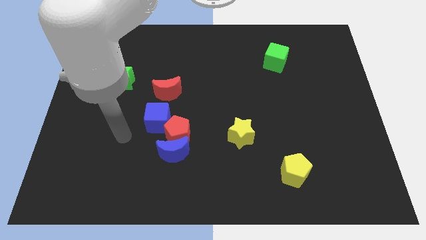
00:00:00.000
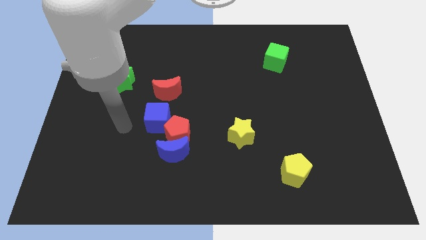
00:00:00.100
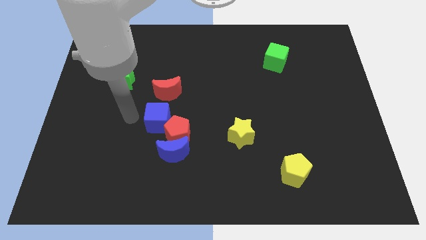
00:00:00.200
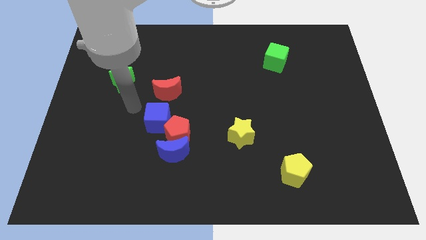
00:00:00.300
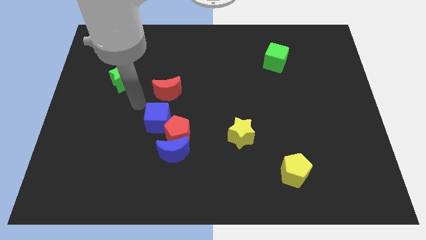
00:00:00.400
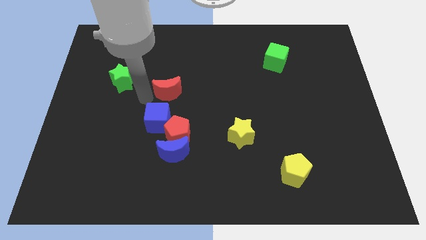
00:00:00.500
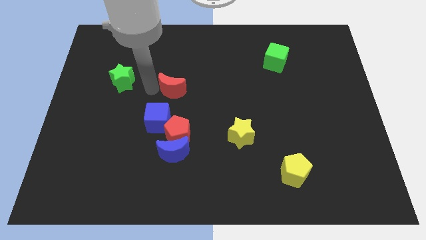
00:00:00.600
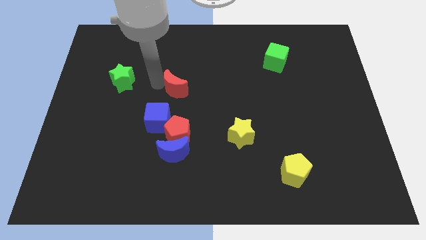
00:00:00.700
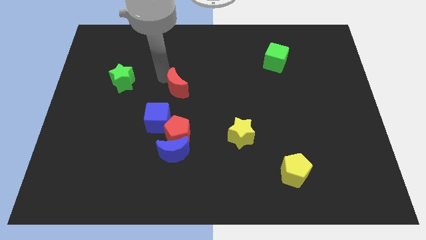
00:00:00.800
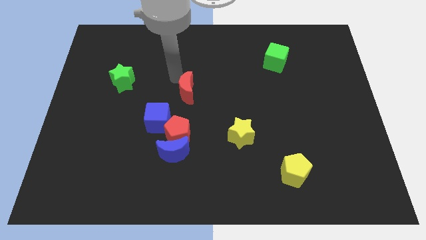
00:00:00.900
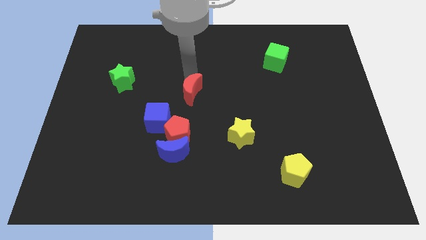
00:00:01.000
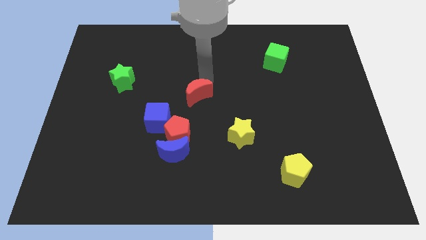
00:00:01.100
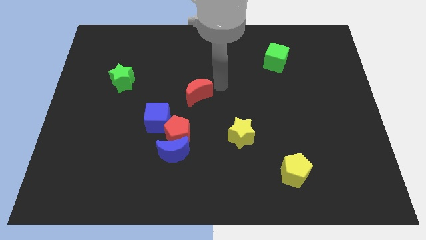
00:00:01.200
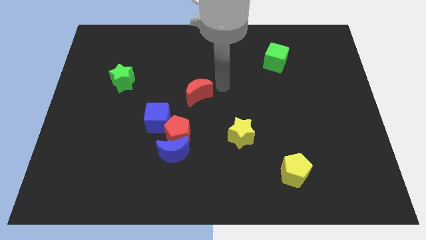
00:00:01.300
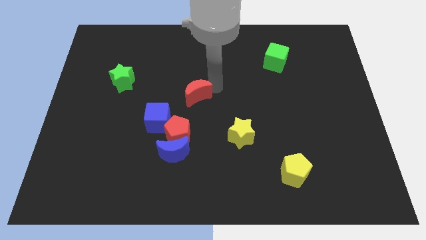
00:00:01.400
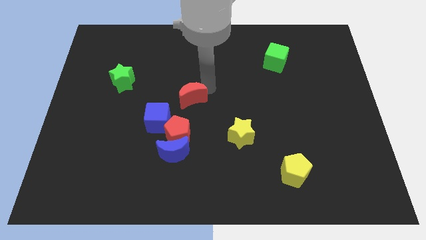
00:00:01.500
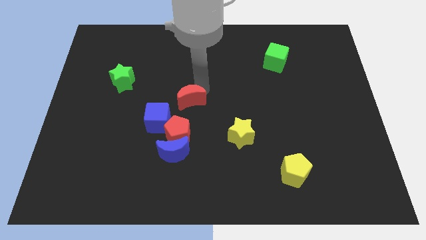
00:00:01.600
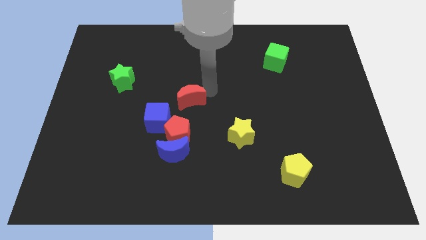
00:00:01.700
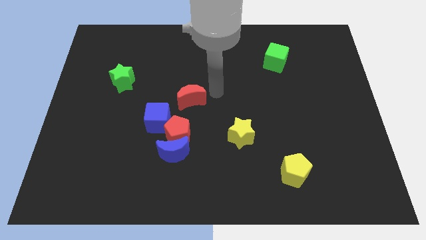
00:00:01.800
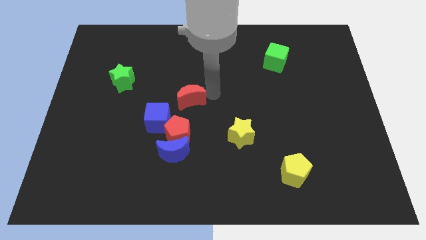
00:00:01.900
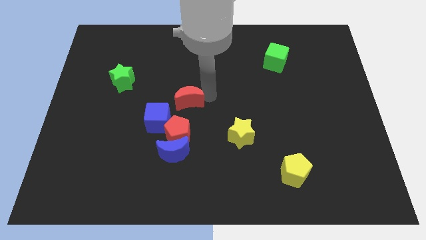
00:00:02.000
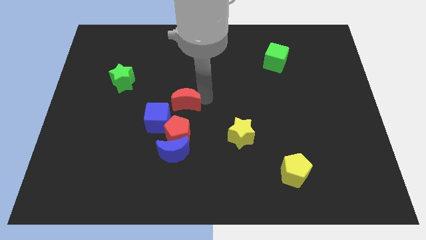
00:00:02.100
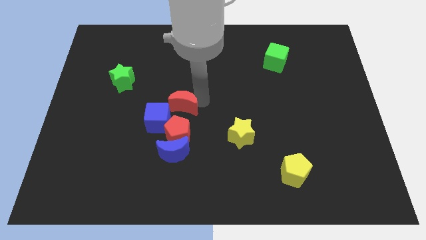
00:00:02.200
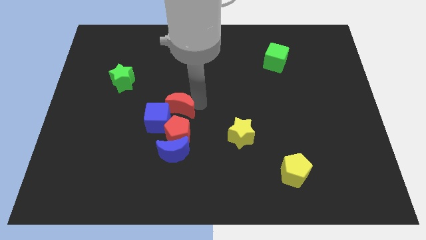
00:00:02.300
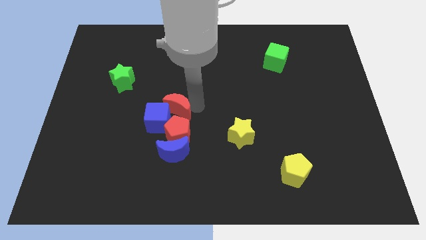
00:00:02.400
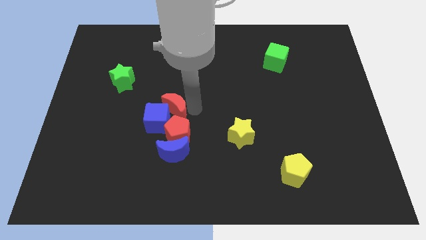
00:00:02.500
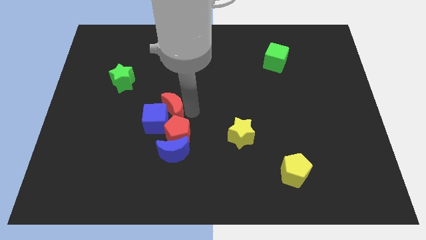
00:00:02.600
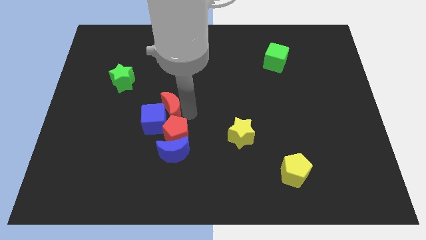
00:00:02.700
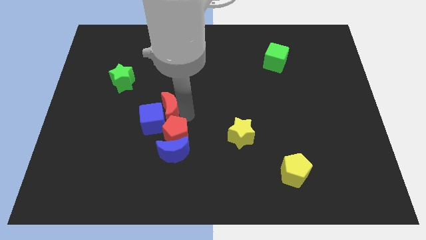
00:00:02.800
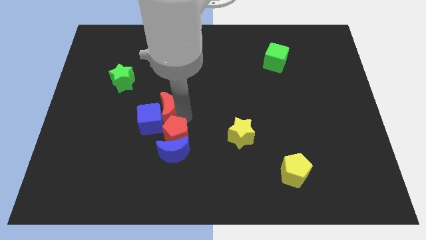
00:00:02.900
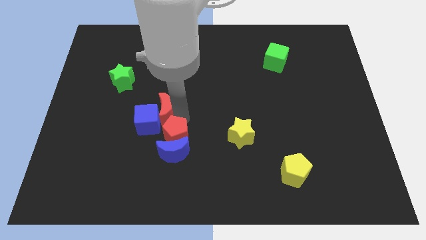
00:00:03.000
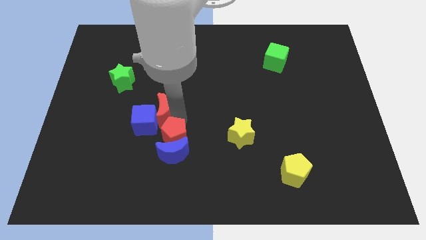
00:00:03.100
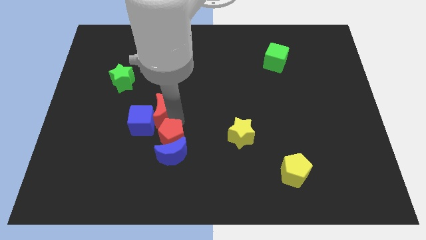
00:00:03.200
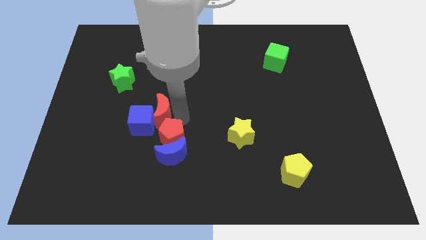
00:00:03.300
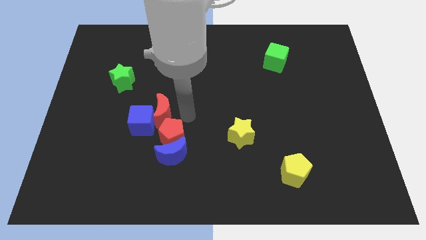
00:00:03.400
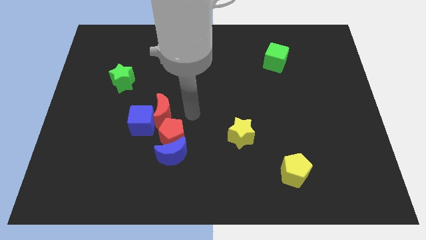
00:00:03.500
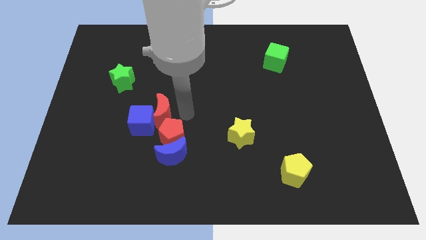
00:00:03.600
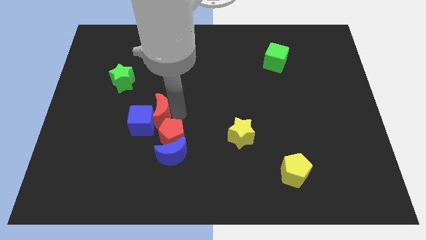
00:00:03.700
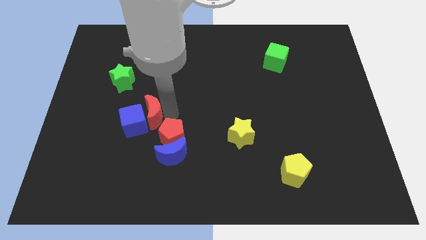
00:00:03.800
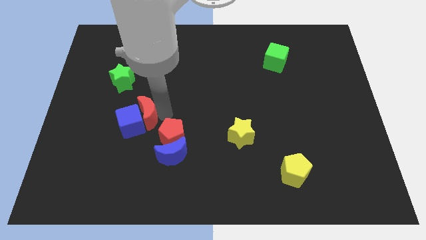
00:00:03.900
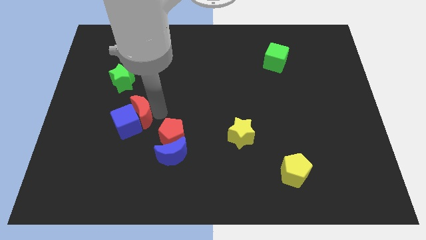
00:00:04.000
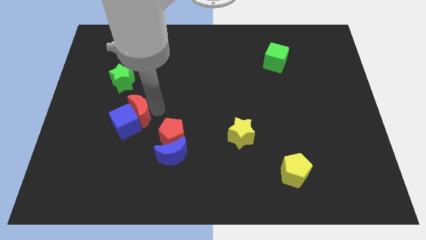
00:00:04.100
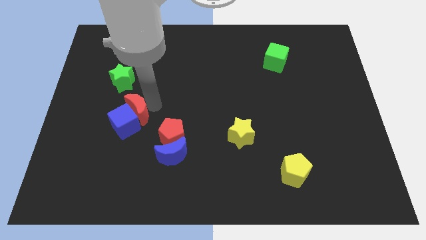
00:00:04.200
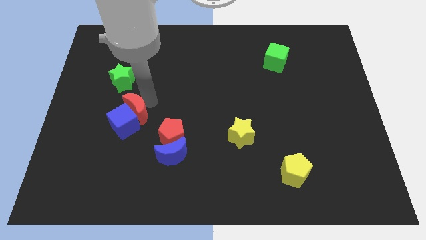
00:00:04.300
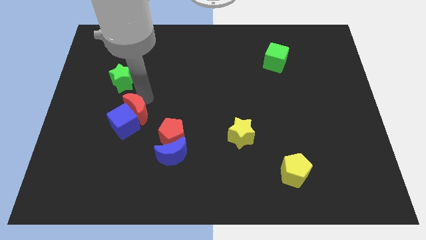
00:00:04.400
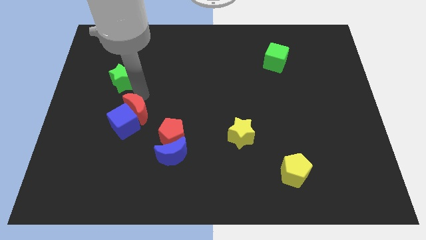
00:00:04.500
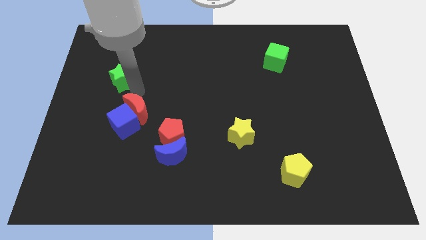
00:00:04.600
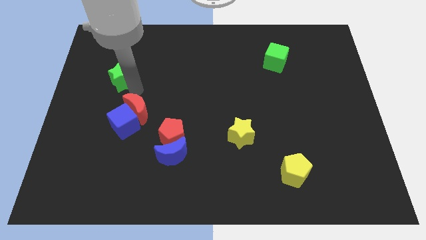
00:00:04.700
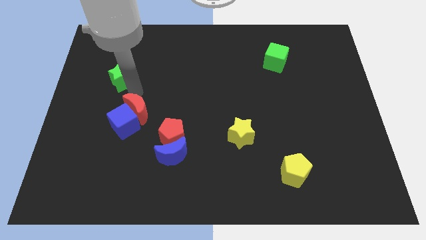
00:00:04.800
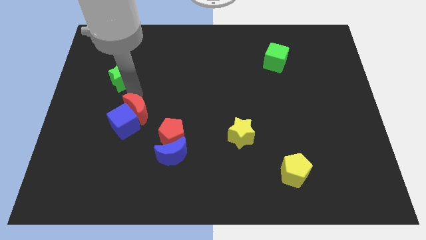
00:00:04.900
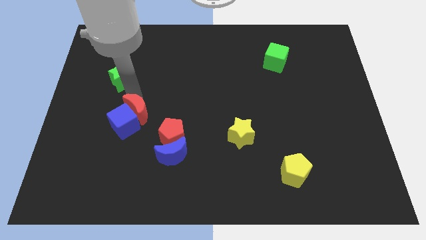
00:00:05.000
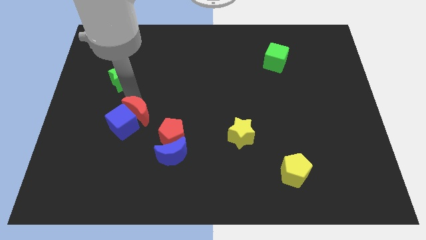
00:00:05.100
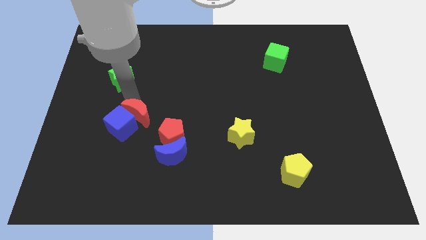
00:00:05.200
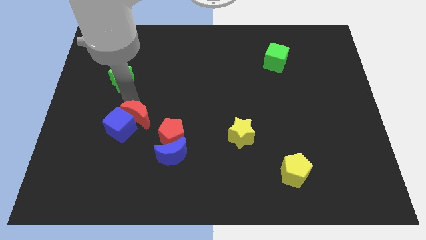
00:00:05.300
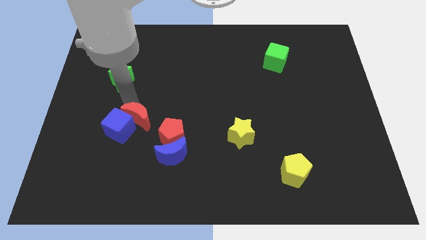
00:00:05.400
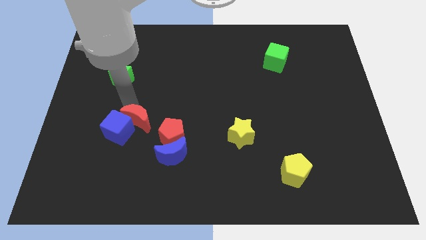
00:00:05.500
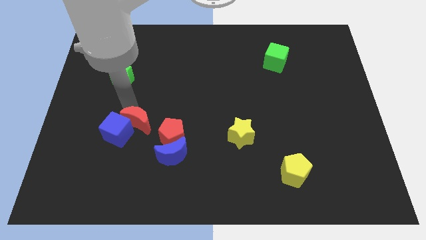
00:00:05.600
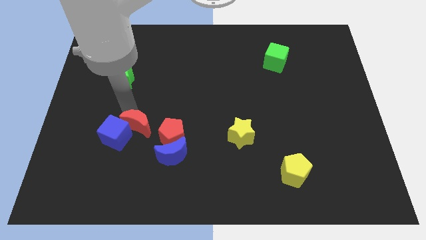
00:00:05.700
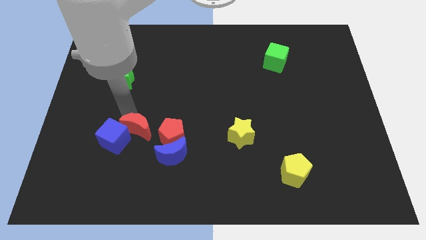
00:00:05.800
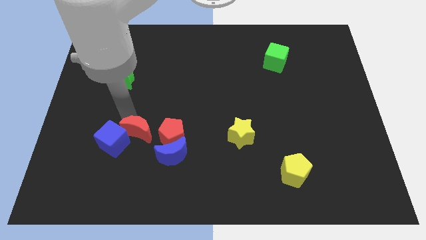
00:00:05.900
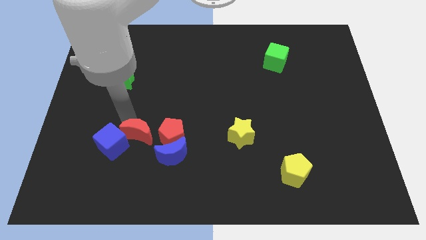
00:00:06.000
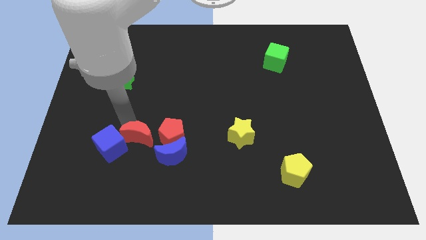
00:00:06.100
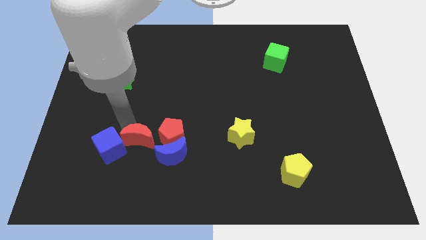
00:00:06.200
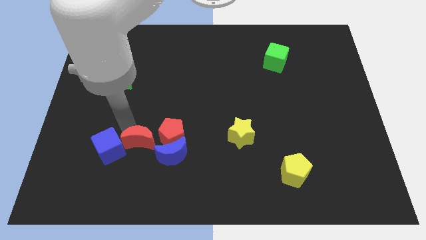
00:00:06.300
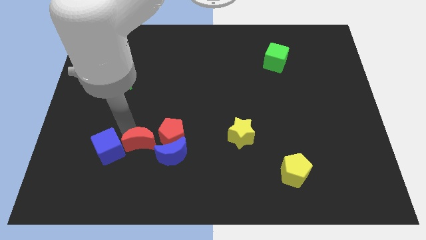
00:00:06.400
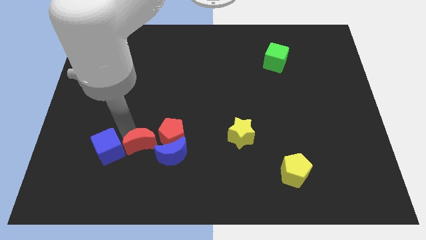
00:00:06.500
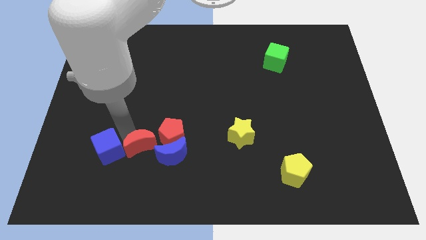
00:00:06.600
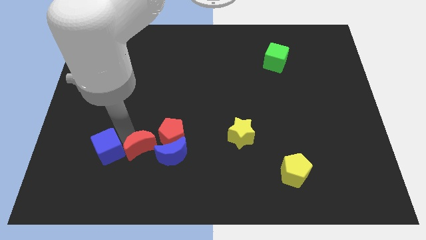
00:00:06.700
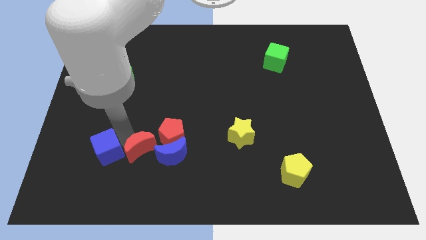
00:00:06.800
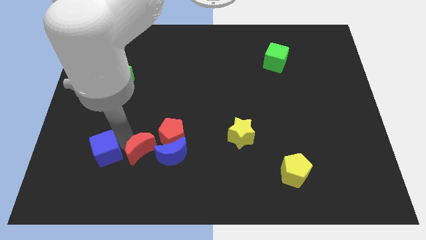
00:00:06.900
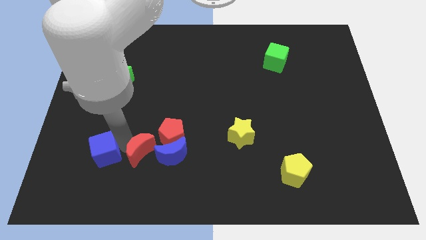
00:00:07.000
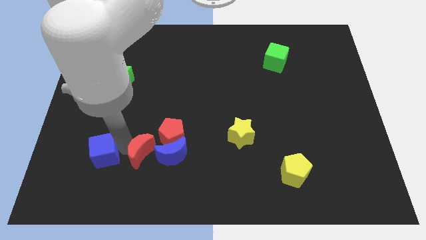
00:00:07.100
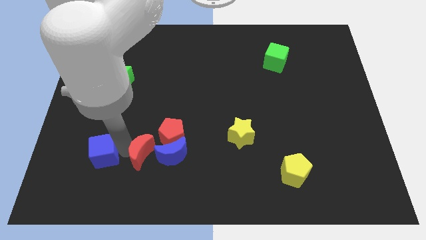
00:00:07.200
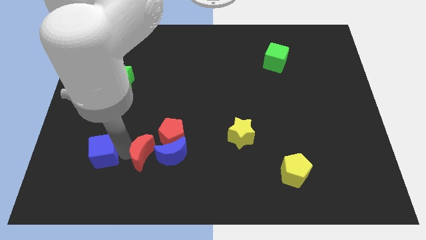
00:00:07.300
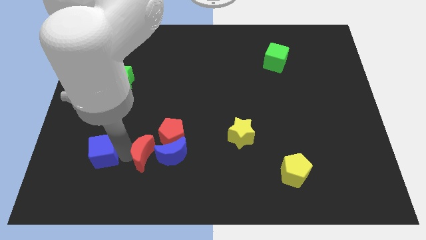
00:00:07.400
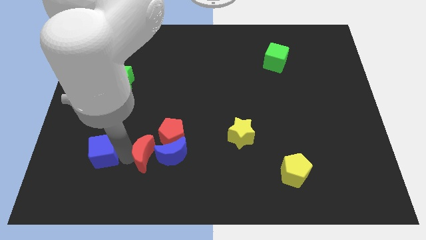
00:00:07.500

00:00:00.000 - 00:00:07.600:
move the red moon to the blue moon
